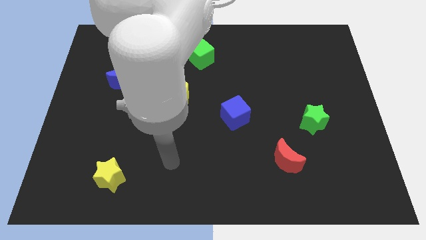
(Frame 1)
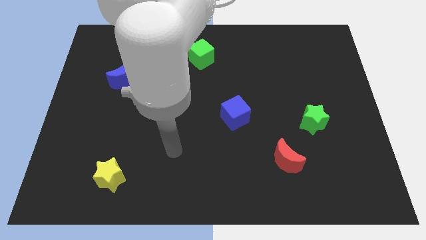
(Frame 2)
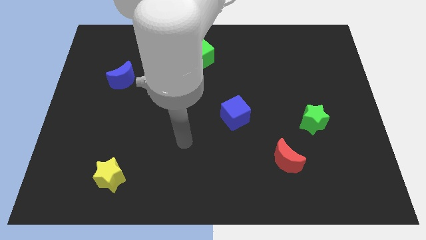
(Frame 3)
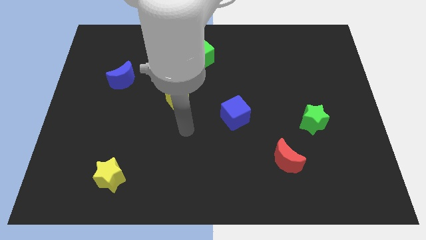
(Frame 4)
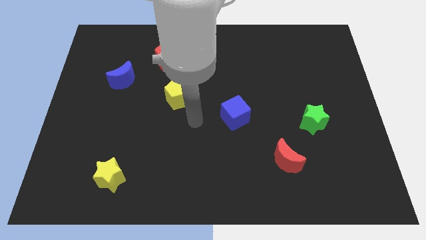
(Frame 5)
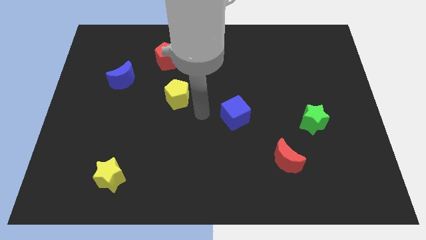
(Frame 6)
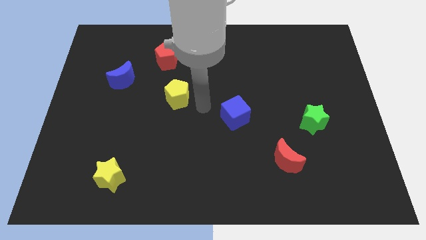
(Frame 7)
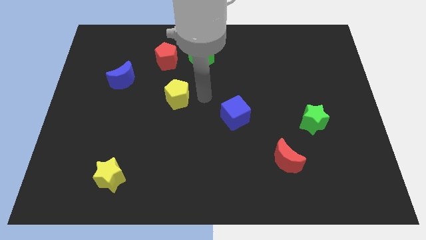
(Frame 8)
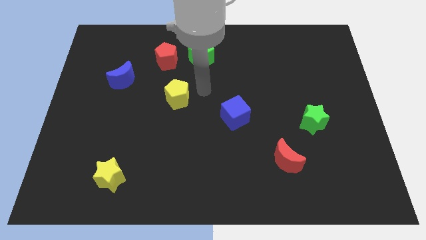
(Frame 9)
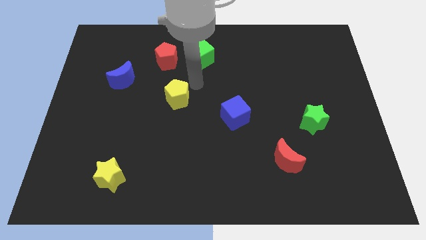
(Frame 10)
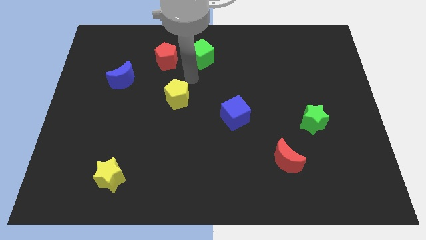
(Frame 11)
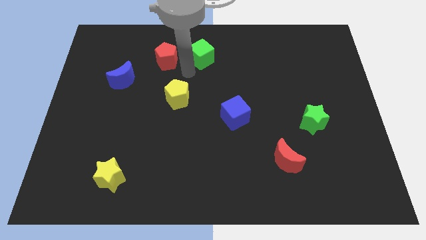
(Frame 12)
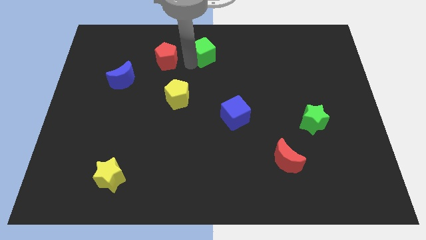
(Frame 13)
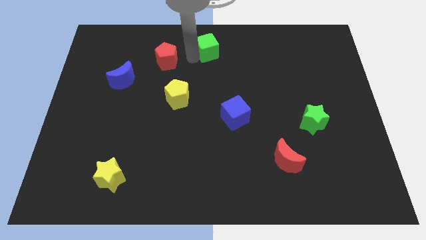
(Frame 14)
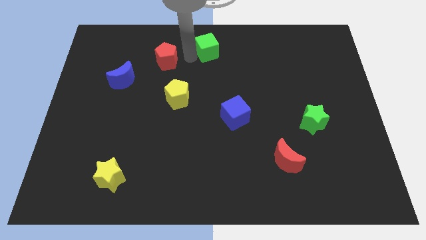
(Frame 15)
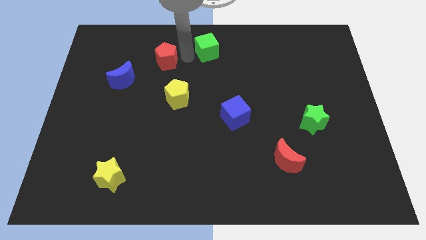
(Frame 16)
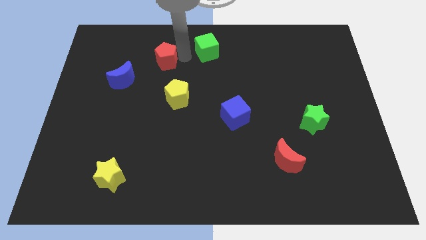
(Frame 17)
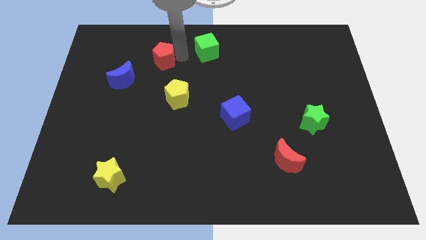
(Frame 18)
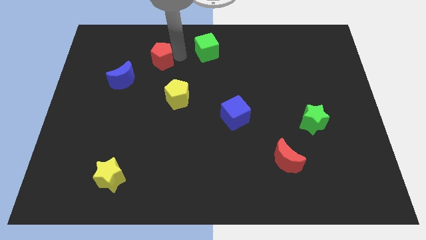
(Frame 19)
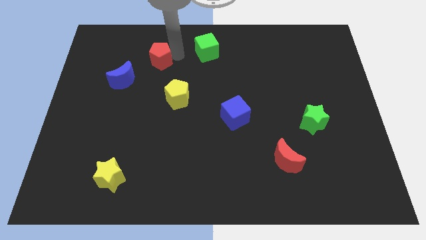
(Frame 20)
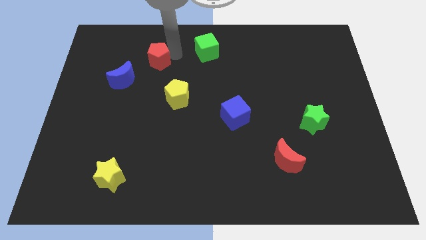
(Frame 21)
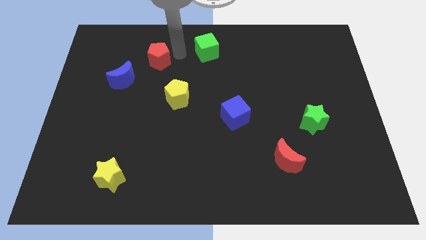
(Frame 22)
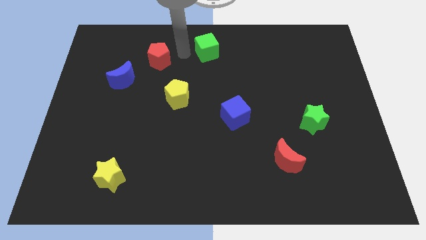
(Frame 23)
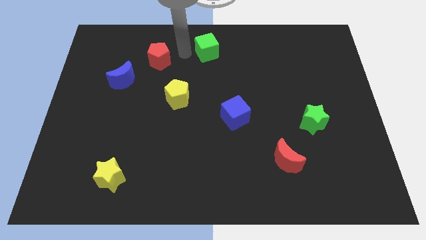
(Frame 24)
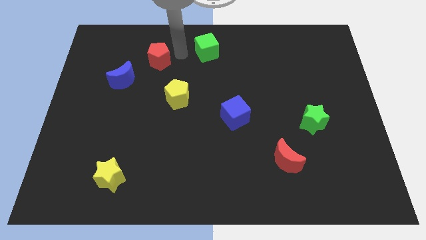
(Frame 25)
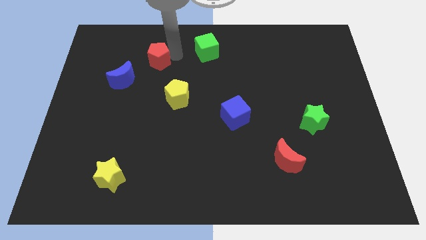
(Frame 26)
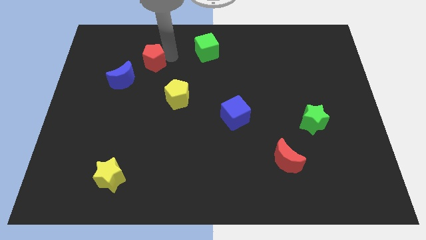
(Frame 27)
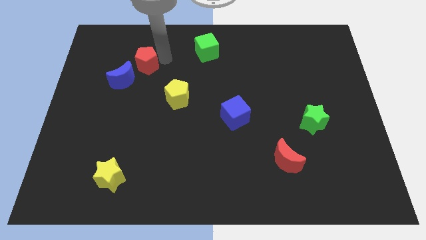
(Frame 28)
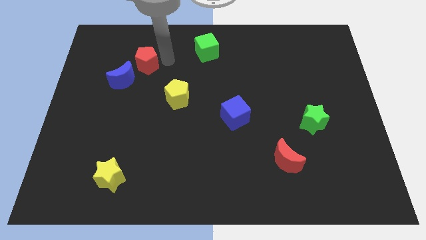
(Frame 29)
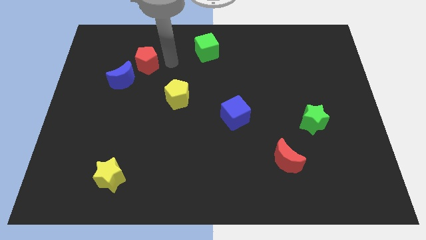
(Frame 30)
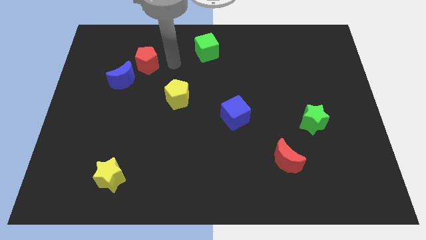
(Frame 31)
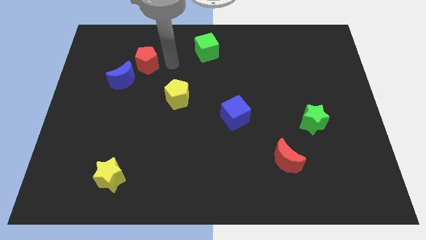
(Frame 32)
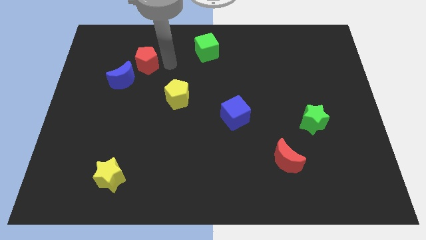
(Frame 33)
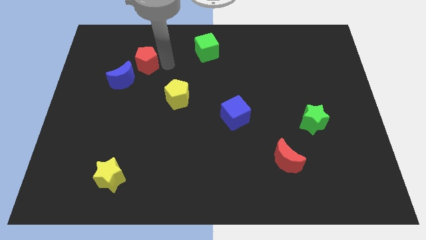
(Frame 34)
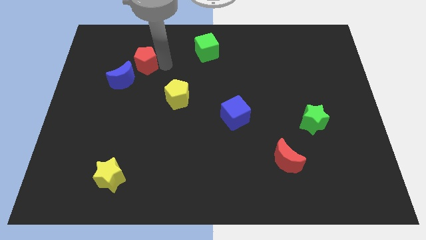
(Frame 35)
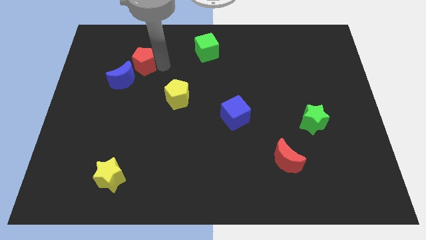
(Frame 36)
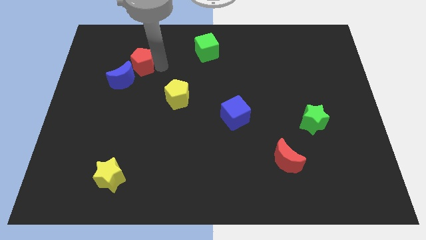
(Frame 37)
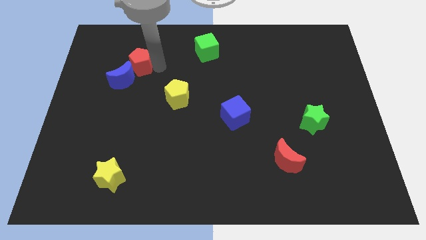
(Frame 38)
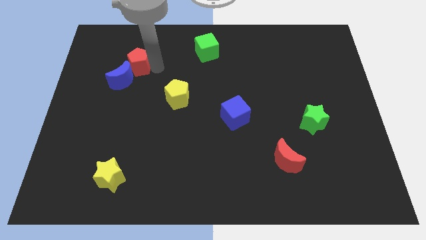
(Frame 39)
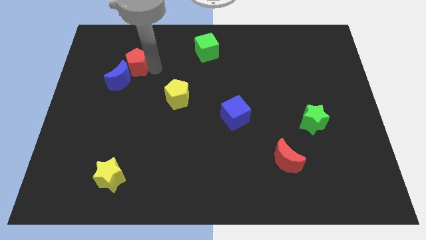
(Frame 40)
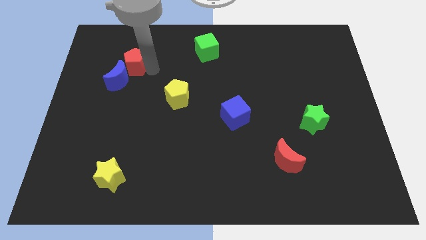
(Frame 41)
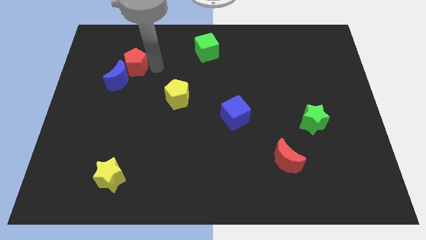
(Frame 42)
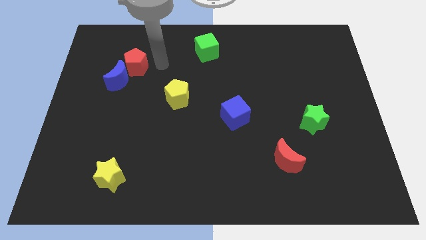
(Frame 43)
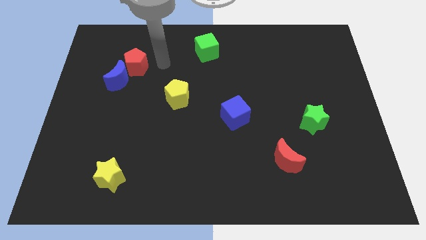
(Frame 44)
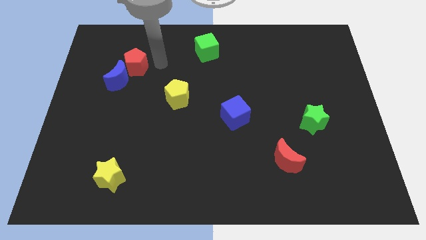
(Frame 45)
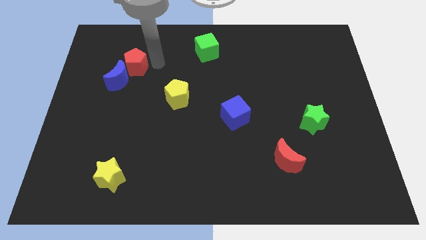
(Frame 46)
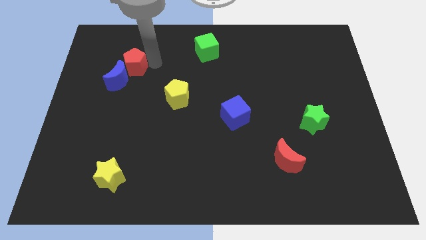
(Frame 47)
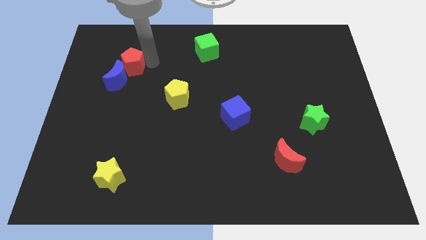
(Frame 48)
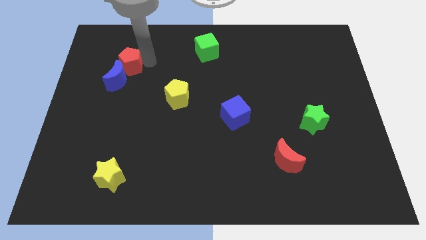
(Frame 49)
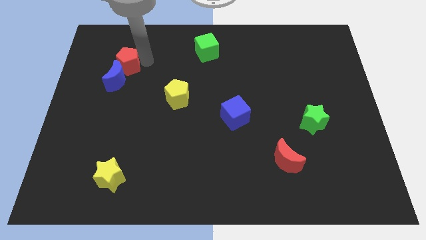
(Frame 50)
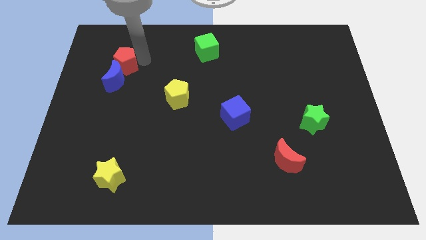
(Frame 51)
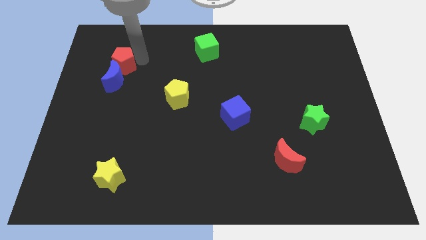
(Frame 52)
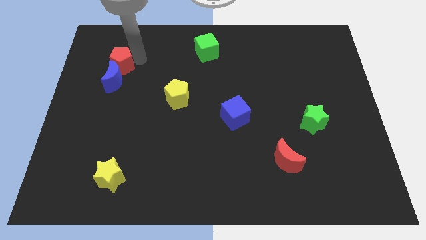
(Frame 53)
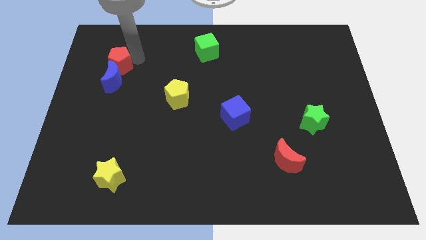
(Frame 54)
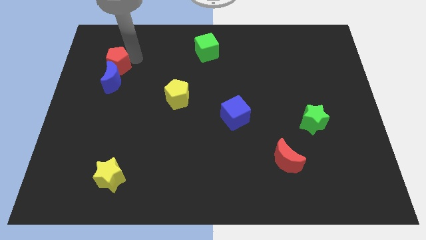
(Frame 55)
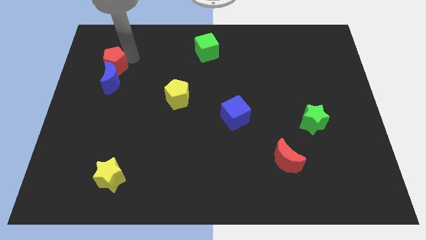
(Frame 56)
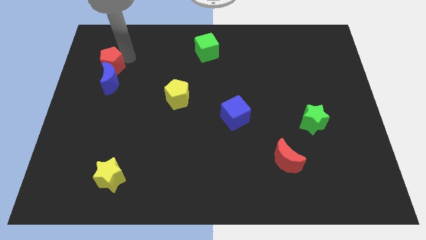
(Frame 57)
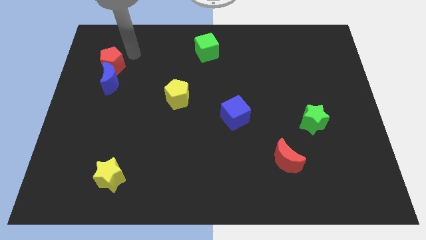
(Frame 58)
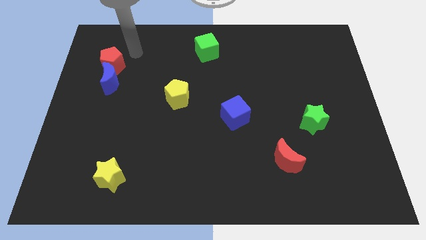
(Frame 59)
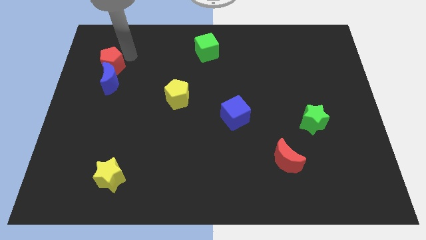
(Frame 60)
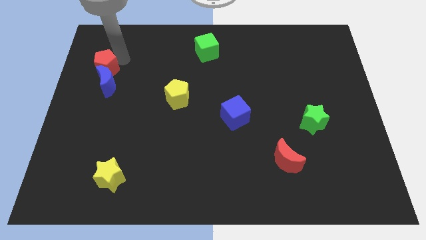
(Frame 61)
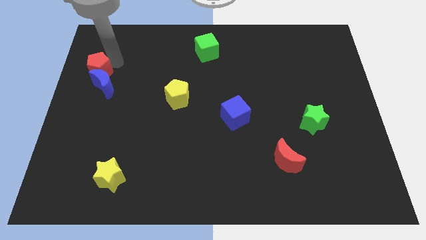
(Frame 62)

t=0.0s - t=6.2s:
push the red pentagon to the left side of the board
